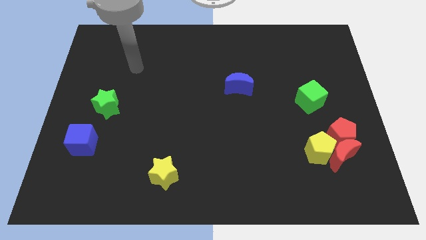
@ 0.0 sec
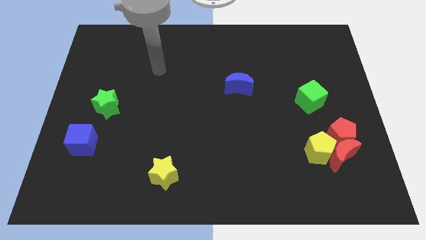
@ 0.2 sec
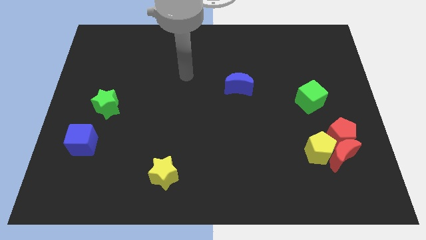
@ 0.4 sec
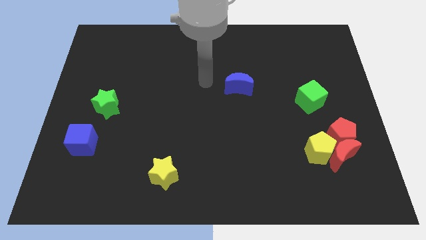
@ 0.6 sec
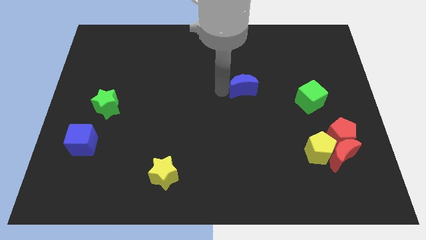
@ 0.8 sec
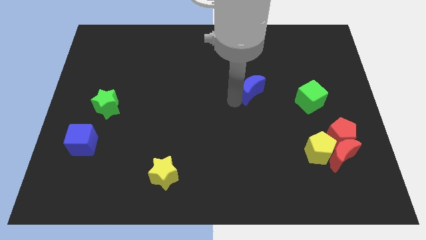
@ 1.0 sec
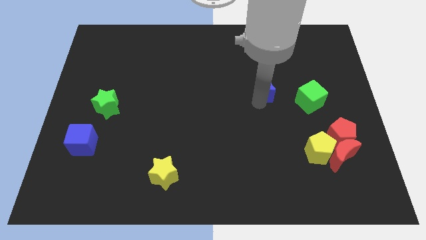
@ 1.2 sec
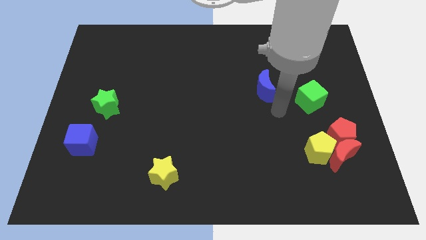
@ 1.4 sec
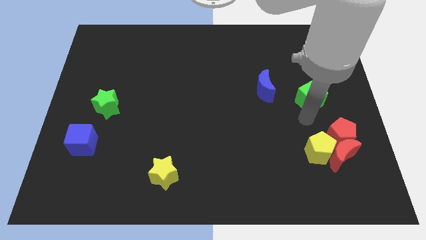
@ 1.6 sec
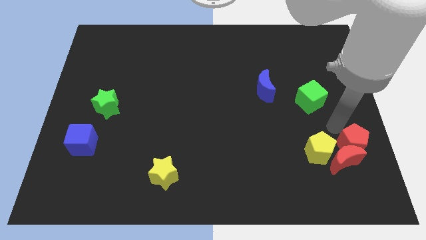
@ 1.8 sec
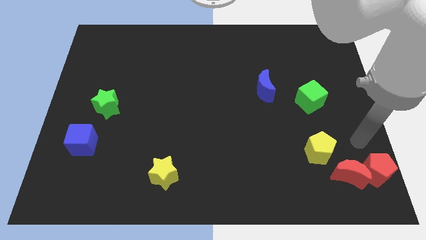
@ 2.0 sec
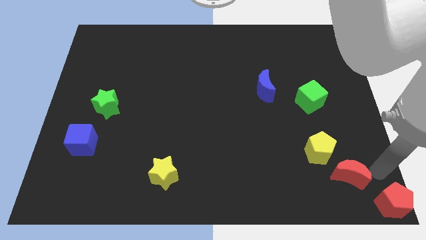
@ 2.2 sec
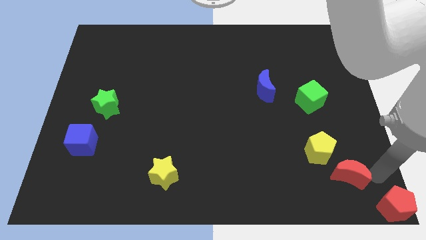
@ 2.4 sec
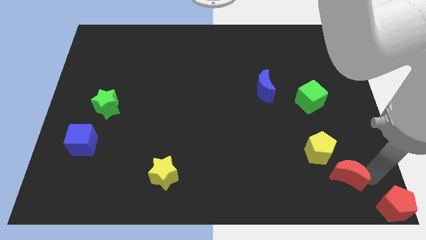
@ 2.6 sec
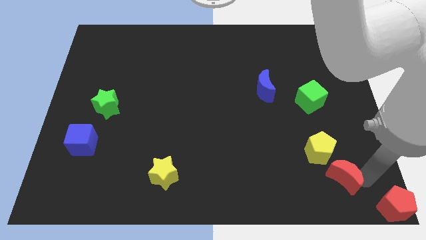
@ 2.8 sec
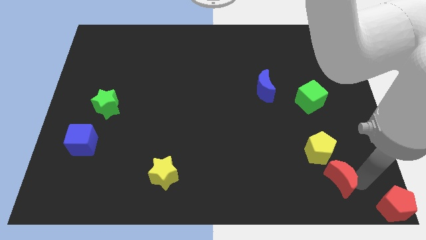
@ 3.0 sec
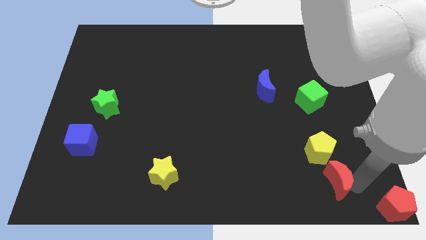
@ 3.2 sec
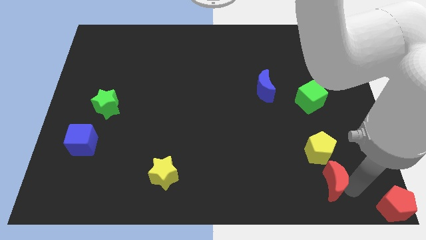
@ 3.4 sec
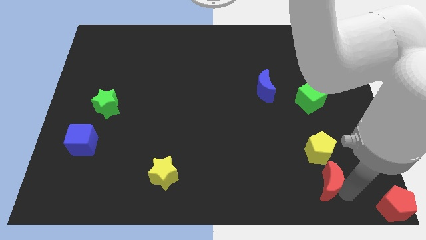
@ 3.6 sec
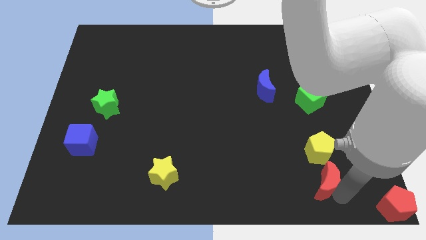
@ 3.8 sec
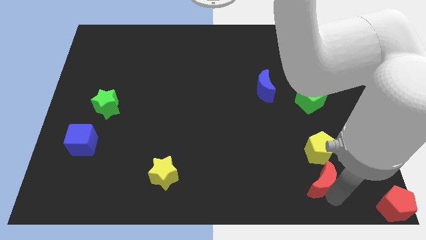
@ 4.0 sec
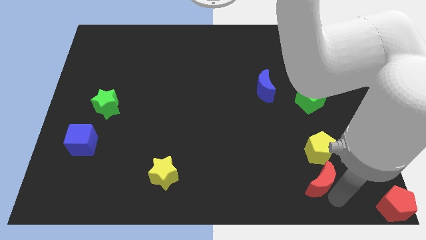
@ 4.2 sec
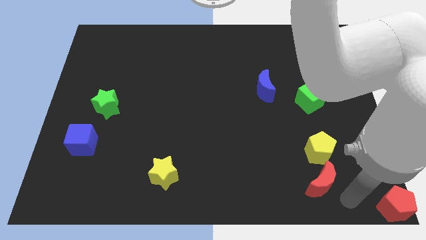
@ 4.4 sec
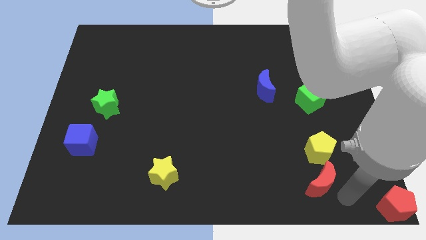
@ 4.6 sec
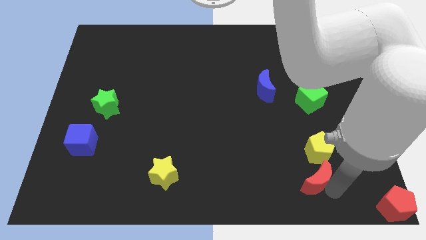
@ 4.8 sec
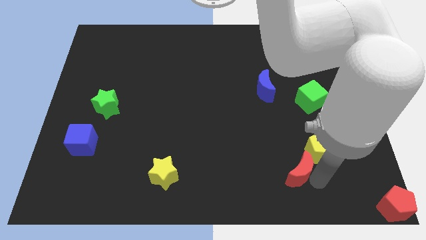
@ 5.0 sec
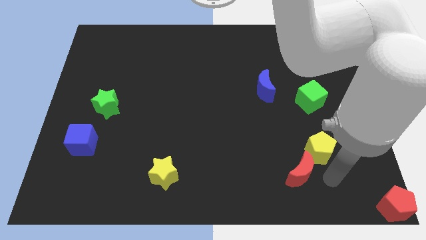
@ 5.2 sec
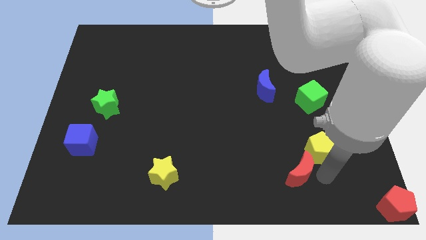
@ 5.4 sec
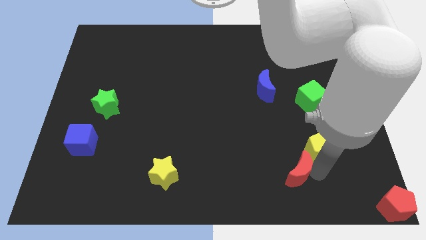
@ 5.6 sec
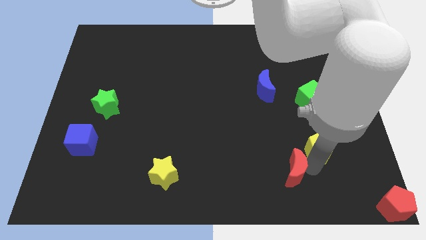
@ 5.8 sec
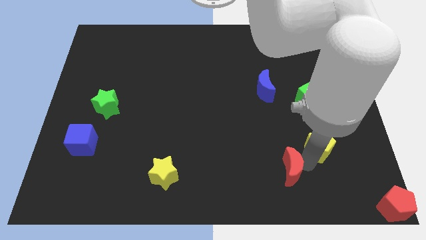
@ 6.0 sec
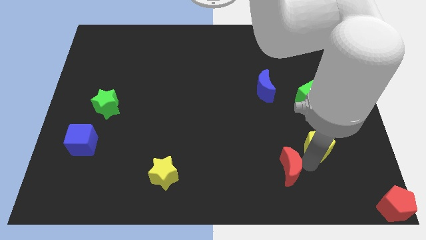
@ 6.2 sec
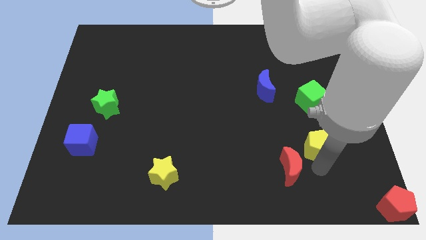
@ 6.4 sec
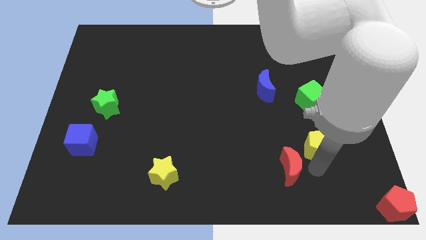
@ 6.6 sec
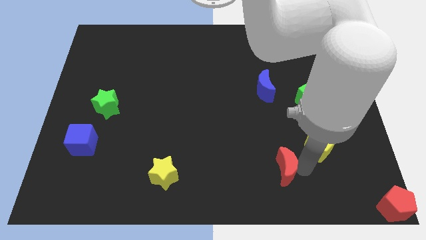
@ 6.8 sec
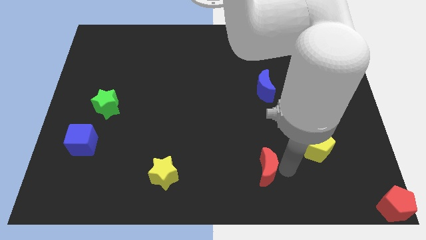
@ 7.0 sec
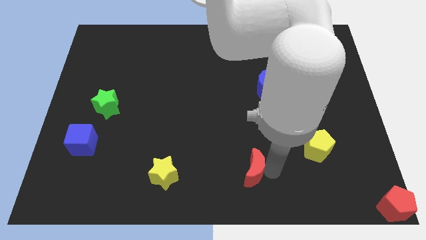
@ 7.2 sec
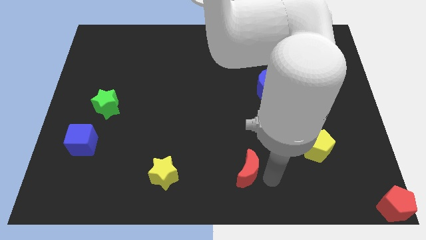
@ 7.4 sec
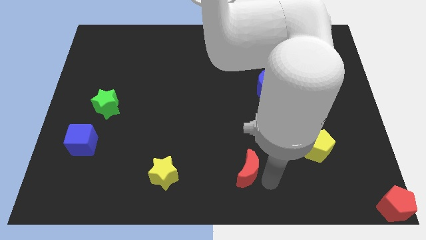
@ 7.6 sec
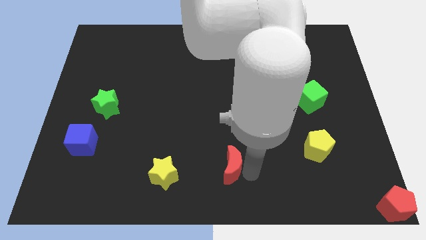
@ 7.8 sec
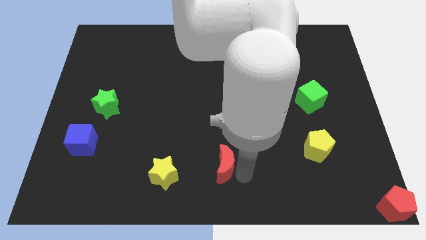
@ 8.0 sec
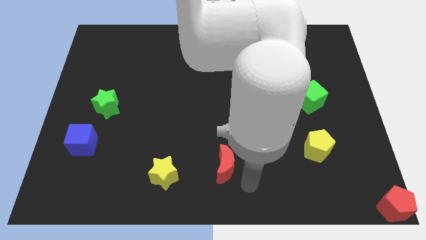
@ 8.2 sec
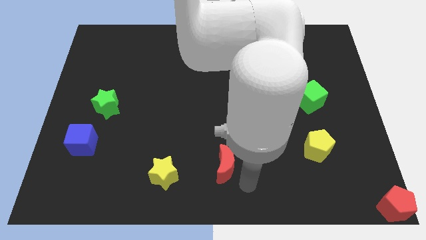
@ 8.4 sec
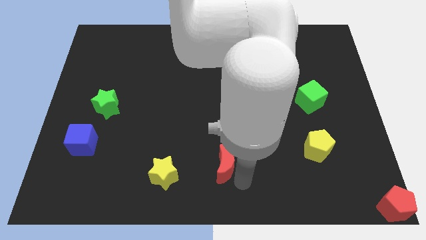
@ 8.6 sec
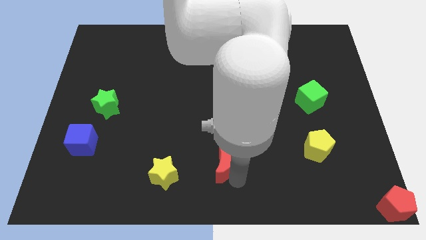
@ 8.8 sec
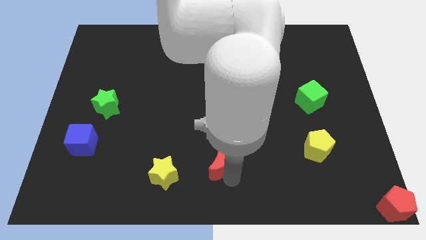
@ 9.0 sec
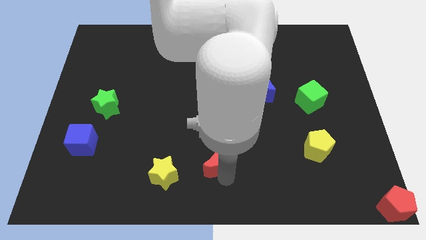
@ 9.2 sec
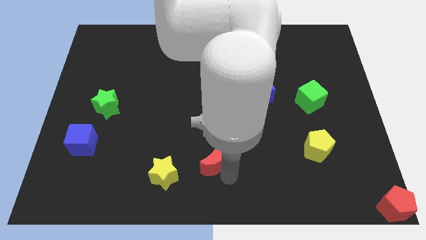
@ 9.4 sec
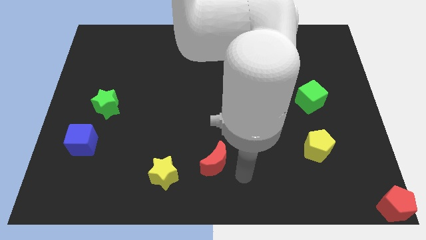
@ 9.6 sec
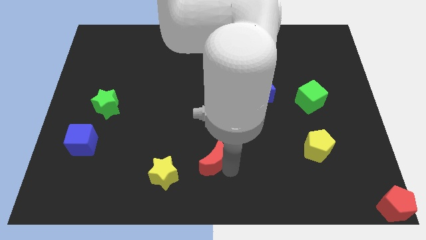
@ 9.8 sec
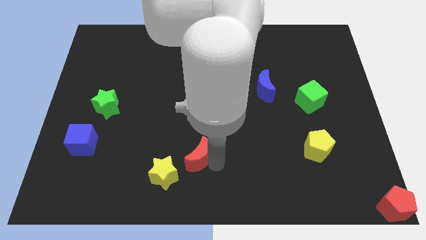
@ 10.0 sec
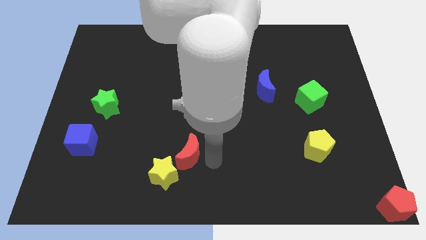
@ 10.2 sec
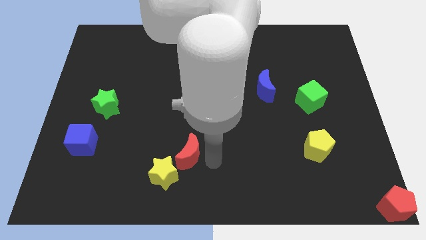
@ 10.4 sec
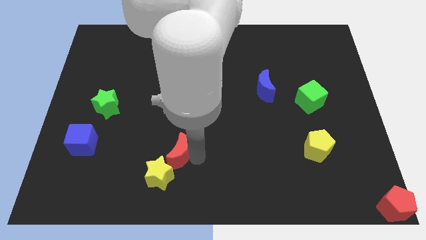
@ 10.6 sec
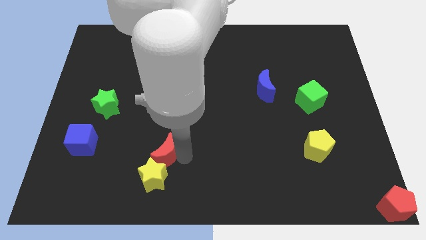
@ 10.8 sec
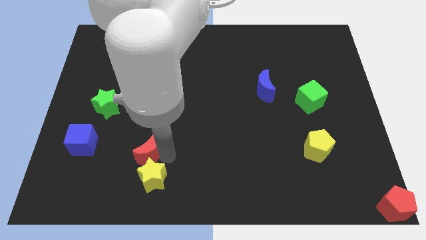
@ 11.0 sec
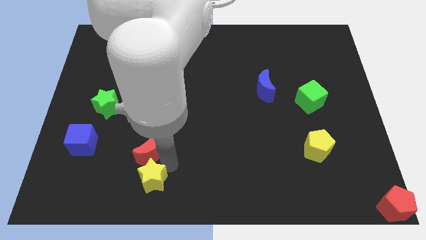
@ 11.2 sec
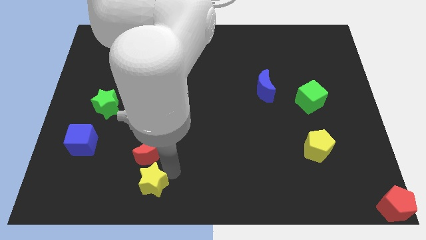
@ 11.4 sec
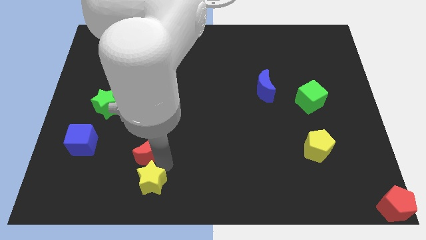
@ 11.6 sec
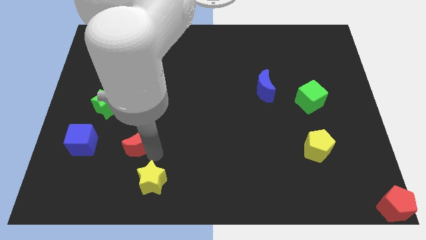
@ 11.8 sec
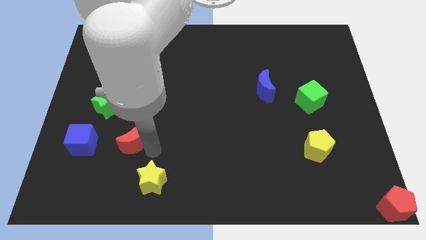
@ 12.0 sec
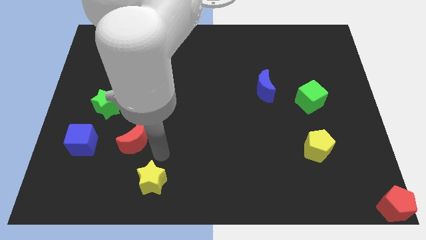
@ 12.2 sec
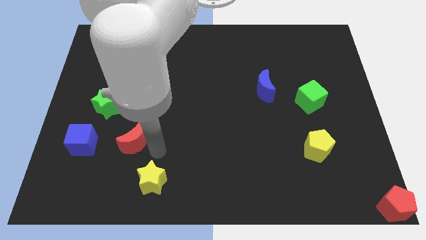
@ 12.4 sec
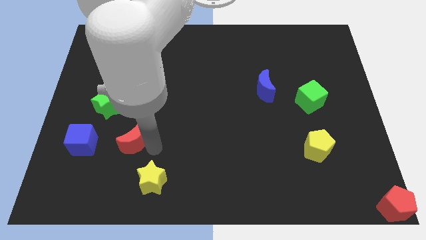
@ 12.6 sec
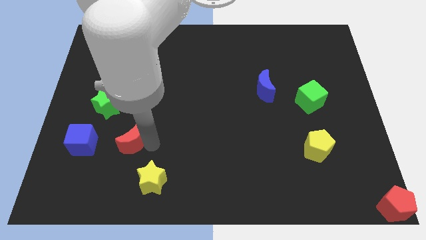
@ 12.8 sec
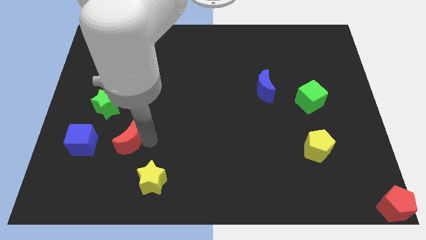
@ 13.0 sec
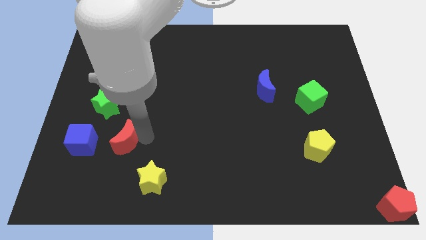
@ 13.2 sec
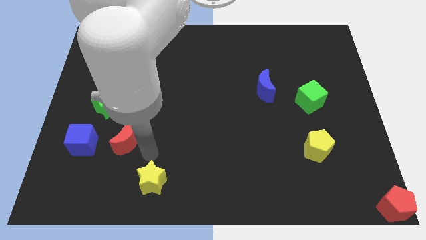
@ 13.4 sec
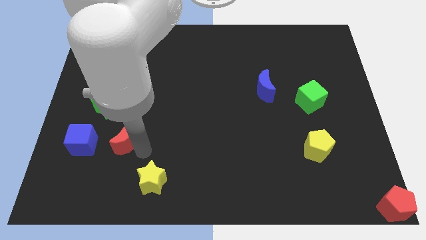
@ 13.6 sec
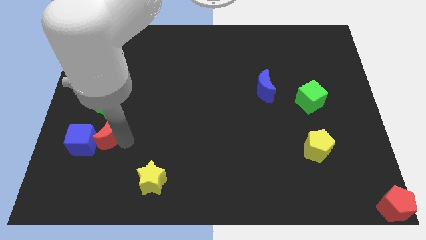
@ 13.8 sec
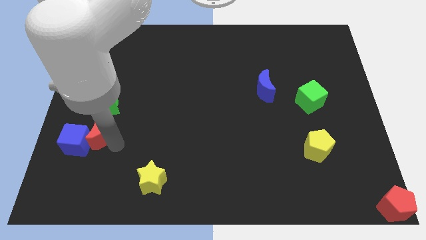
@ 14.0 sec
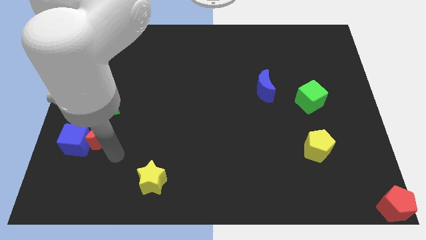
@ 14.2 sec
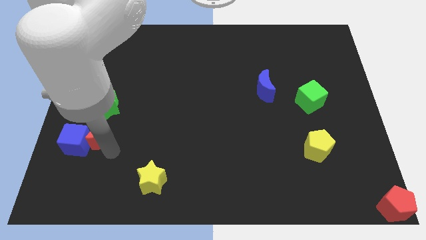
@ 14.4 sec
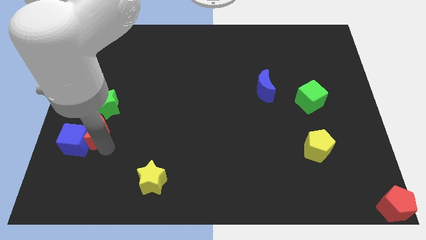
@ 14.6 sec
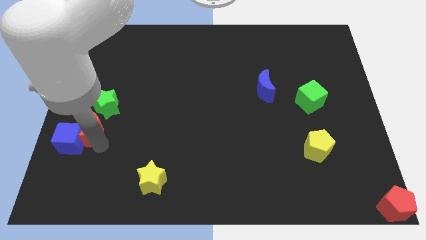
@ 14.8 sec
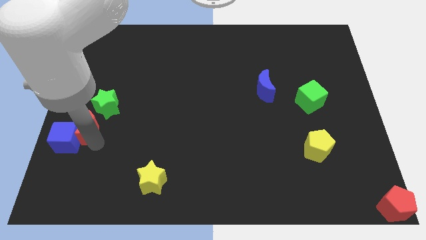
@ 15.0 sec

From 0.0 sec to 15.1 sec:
put the red moon to the left side of the board
